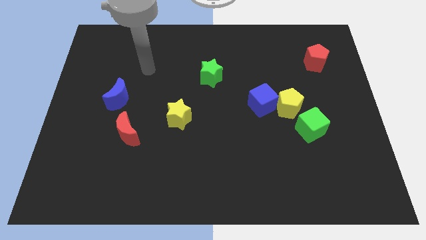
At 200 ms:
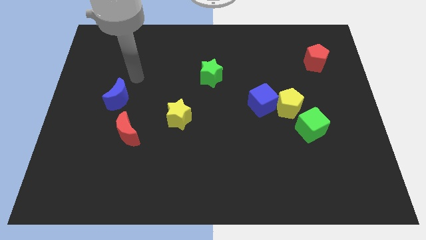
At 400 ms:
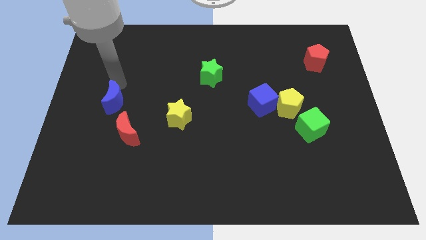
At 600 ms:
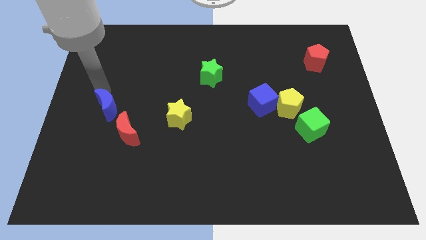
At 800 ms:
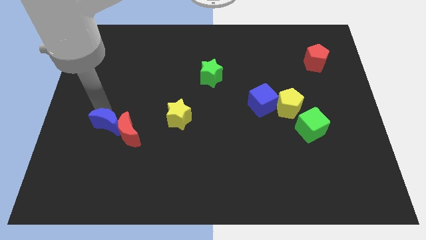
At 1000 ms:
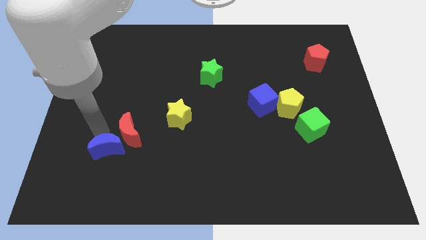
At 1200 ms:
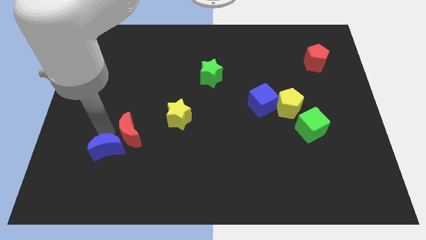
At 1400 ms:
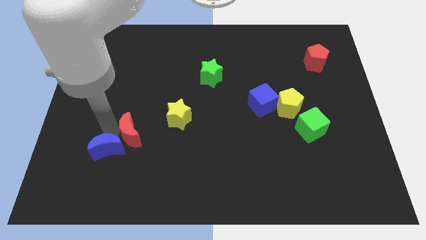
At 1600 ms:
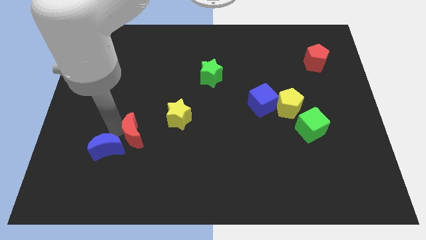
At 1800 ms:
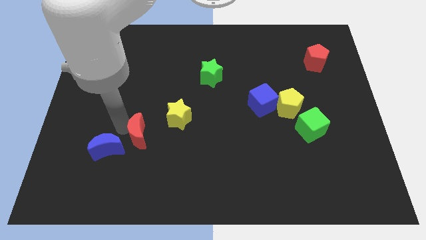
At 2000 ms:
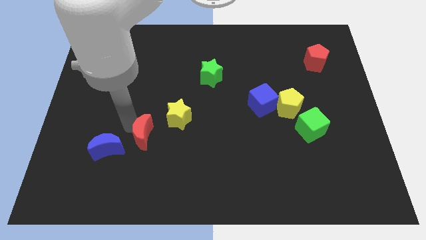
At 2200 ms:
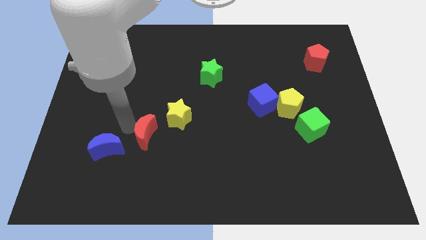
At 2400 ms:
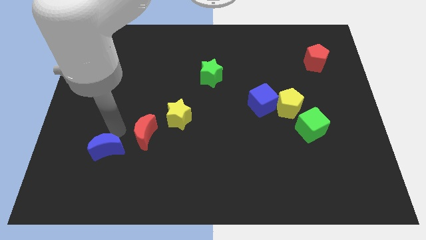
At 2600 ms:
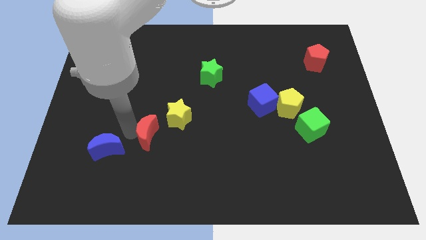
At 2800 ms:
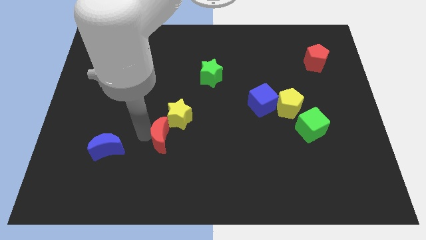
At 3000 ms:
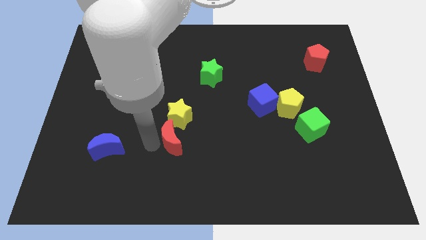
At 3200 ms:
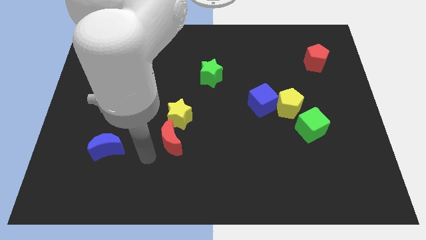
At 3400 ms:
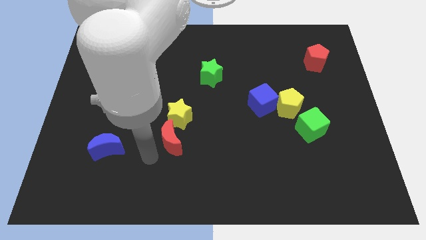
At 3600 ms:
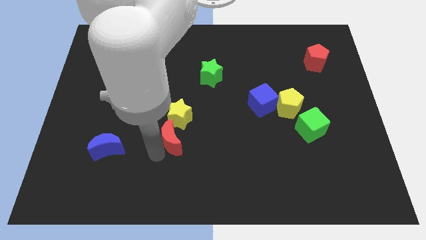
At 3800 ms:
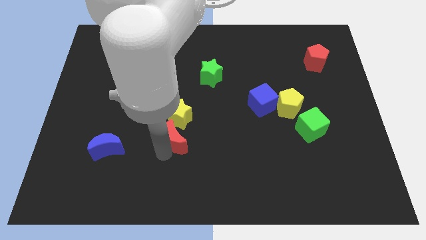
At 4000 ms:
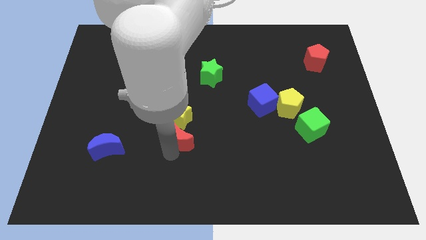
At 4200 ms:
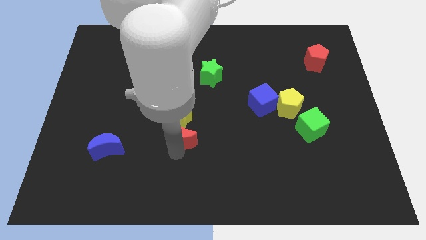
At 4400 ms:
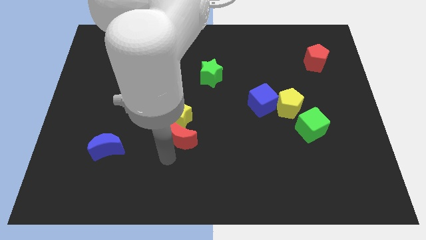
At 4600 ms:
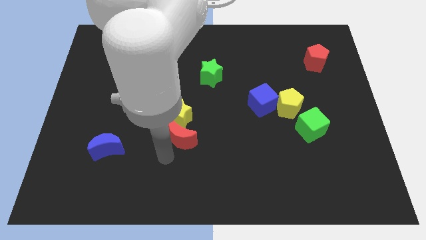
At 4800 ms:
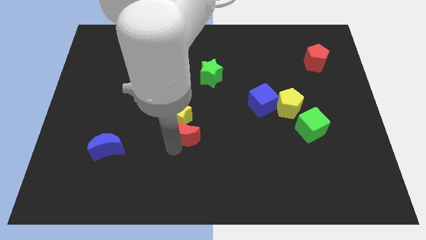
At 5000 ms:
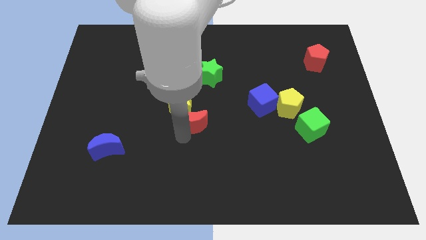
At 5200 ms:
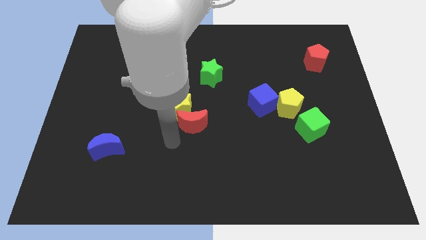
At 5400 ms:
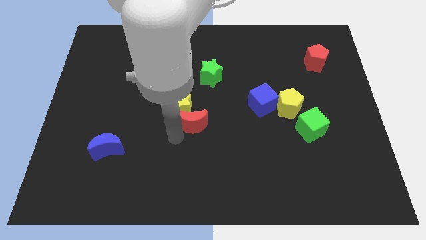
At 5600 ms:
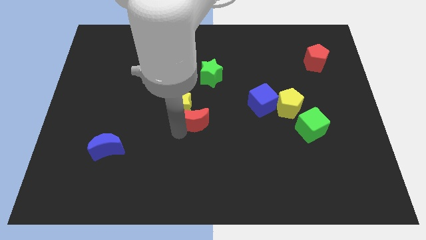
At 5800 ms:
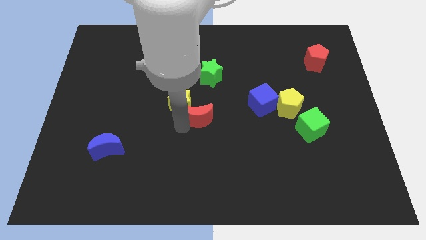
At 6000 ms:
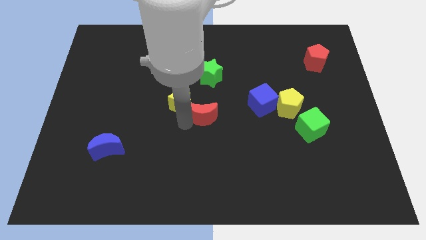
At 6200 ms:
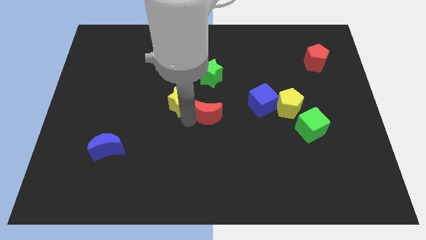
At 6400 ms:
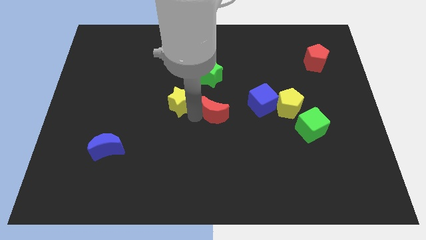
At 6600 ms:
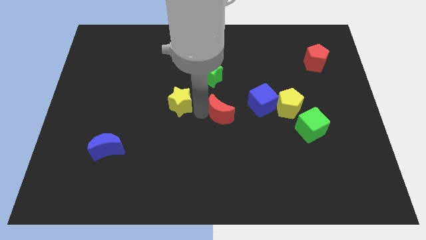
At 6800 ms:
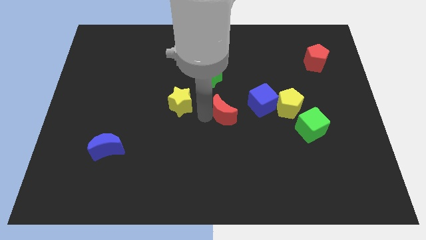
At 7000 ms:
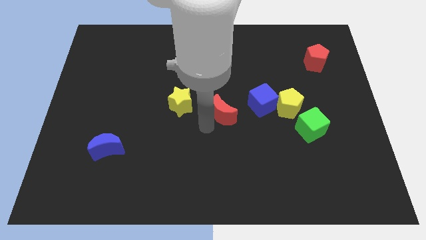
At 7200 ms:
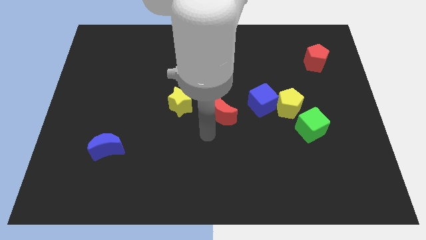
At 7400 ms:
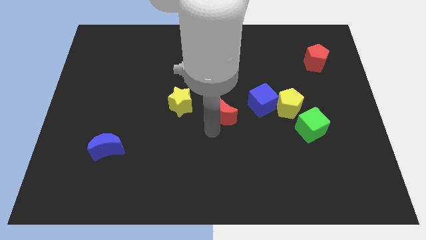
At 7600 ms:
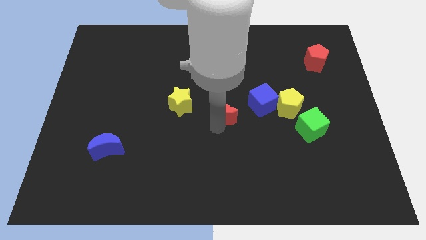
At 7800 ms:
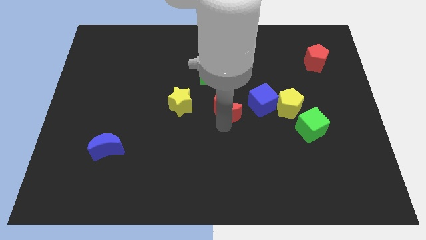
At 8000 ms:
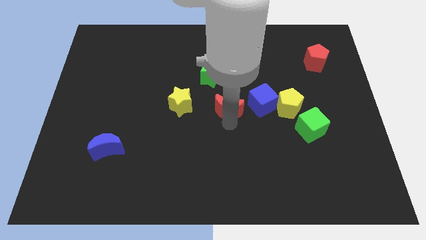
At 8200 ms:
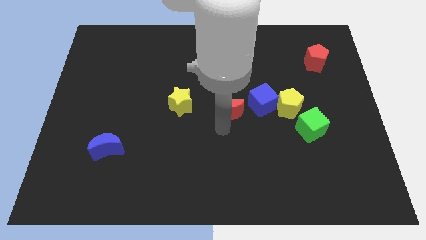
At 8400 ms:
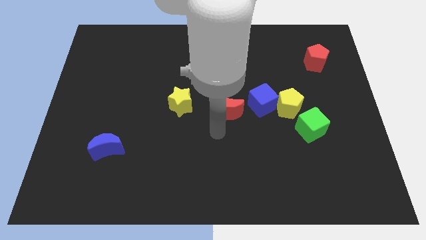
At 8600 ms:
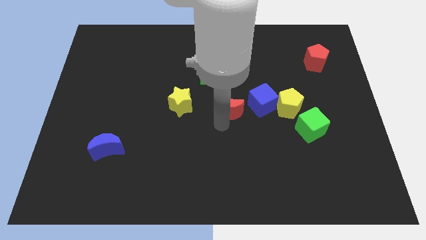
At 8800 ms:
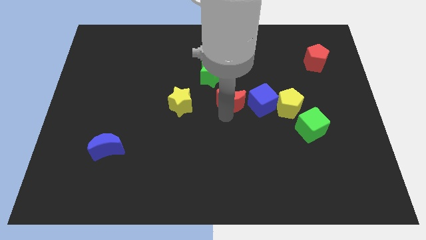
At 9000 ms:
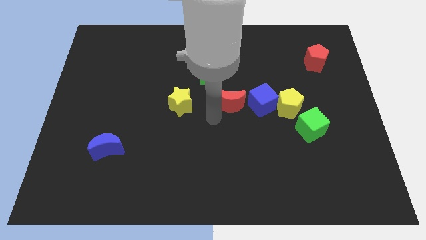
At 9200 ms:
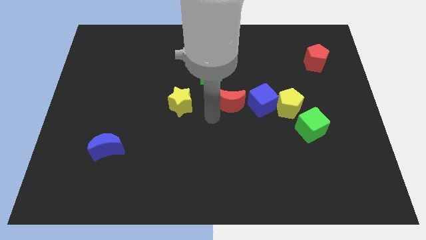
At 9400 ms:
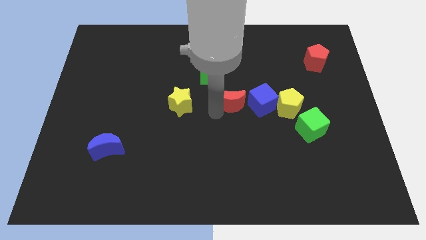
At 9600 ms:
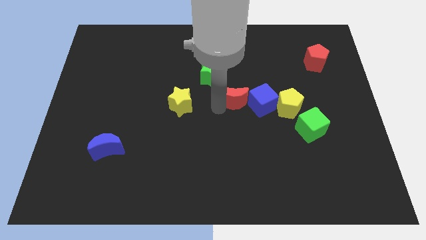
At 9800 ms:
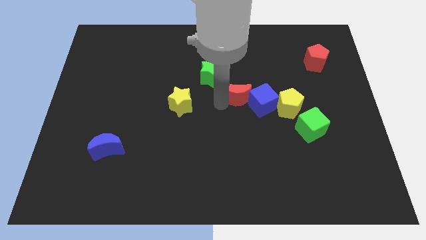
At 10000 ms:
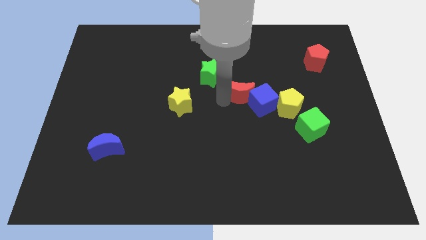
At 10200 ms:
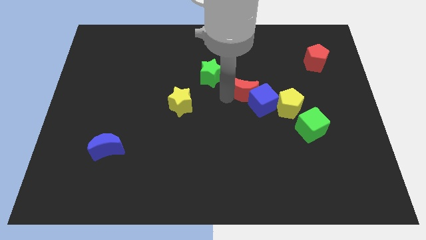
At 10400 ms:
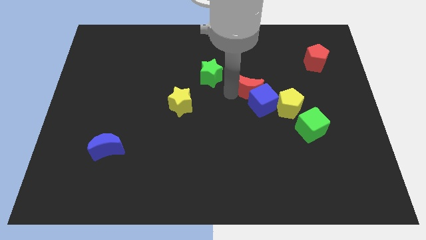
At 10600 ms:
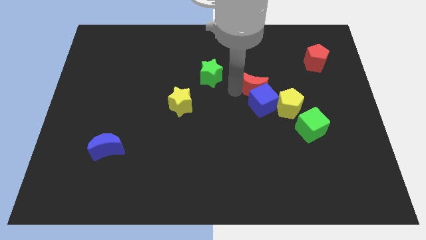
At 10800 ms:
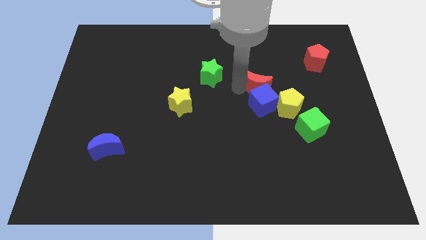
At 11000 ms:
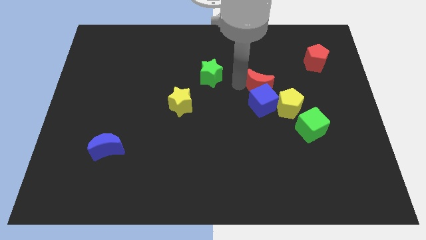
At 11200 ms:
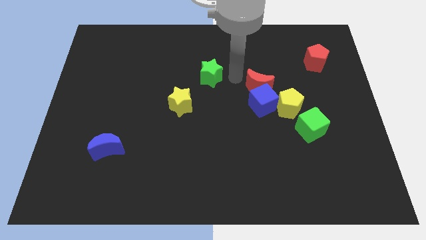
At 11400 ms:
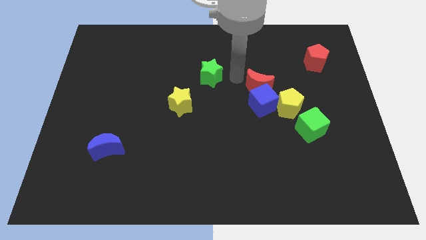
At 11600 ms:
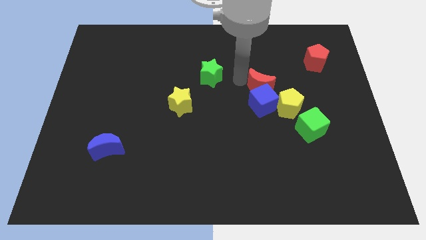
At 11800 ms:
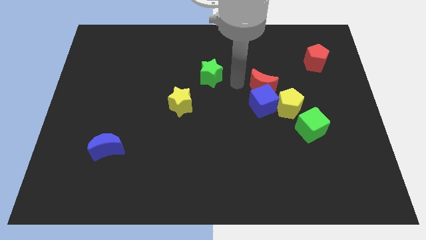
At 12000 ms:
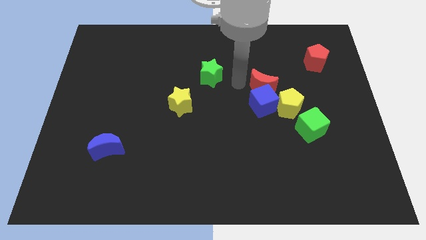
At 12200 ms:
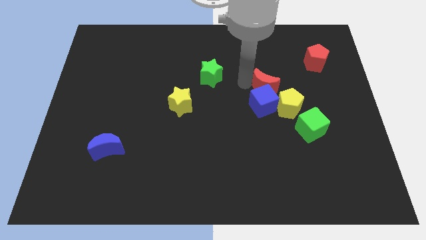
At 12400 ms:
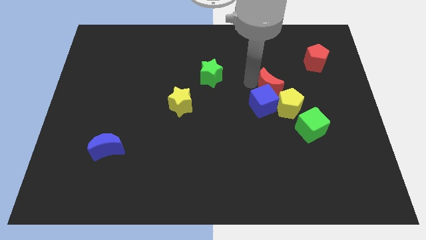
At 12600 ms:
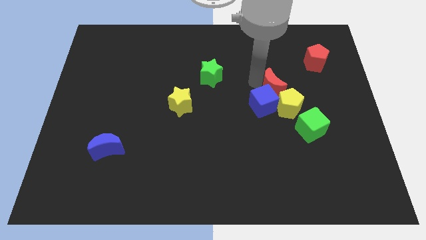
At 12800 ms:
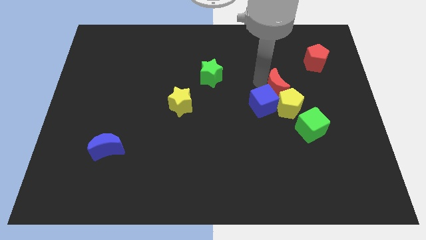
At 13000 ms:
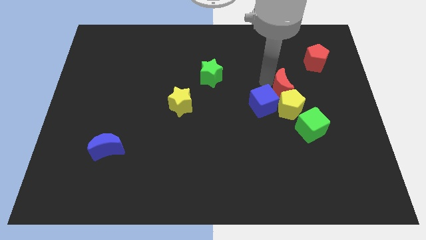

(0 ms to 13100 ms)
move the red moon to the top right side of the yellow pentagon
